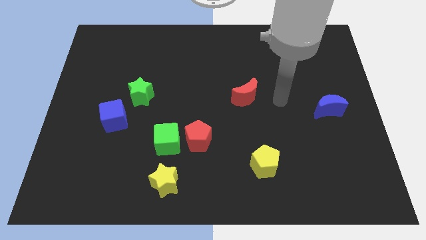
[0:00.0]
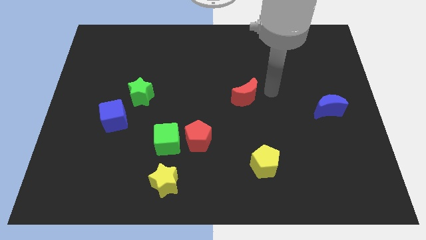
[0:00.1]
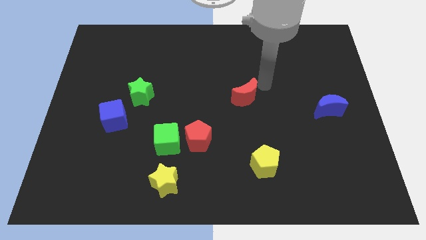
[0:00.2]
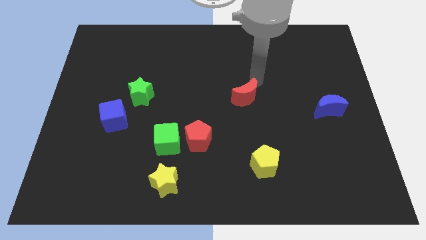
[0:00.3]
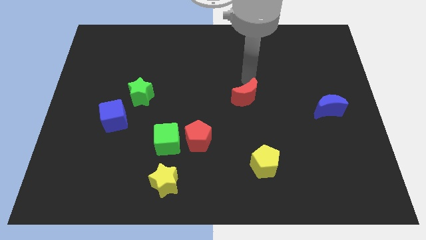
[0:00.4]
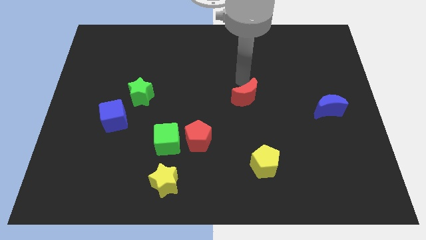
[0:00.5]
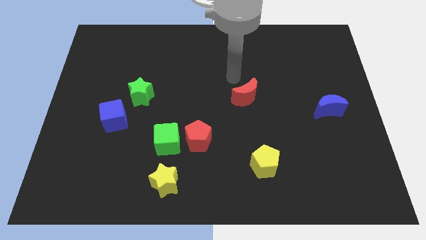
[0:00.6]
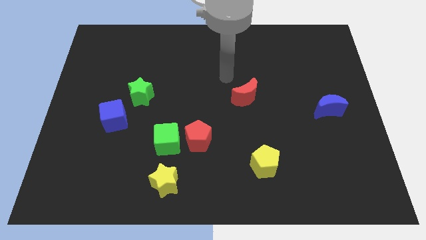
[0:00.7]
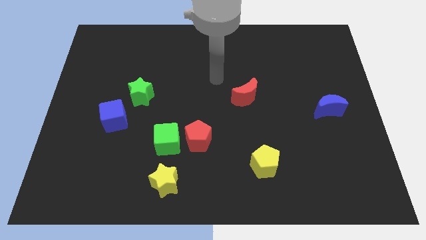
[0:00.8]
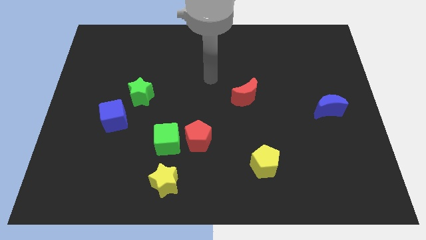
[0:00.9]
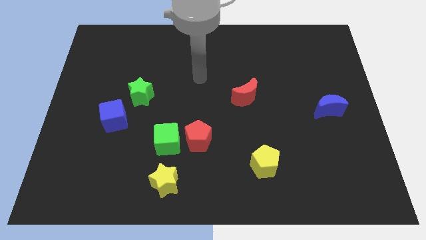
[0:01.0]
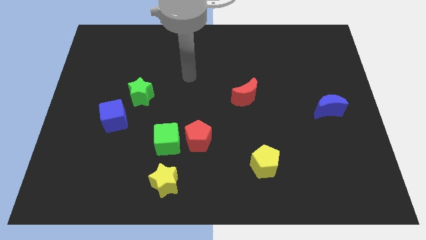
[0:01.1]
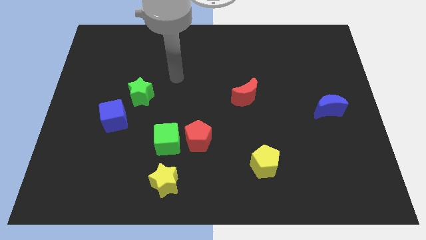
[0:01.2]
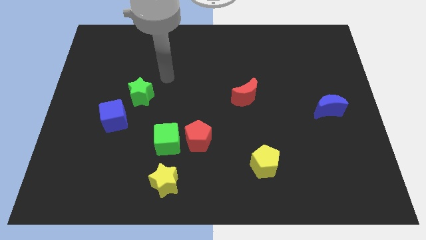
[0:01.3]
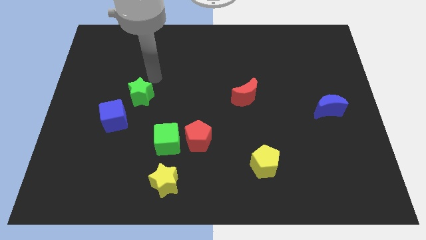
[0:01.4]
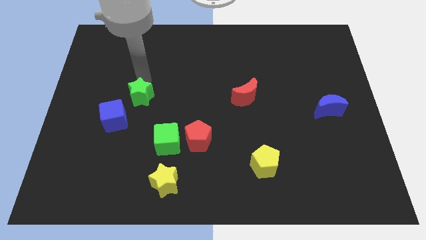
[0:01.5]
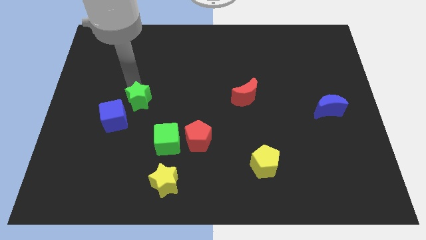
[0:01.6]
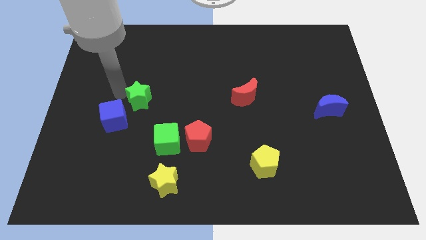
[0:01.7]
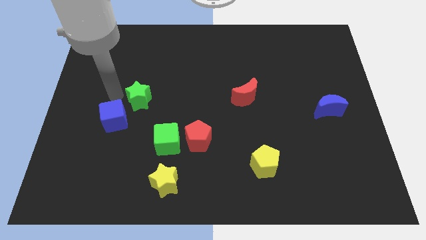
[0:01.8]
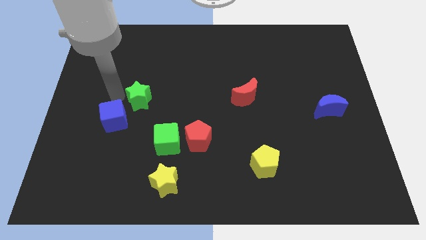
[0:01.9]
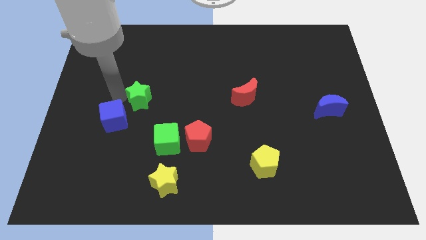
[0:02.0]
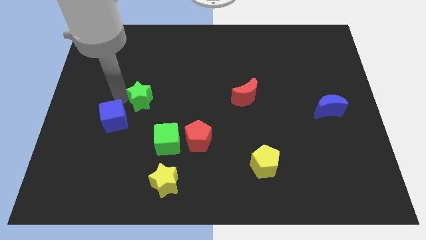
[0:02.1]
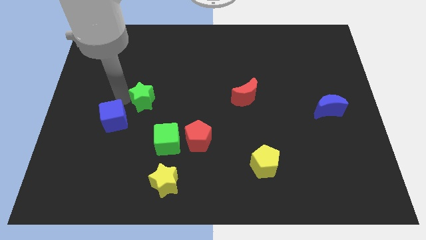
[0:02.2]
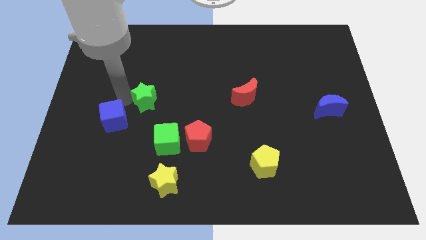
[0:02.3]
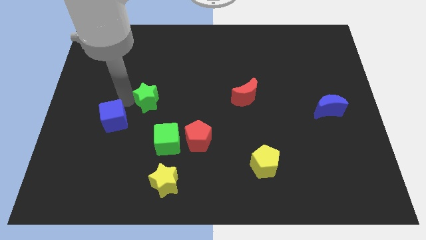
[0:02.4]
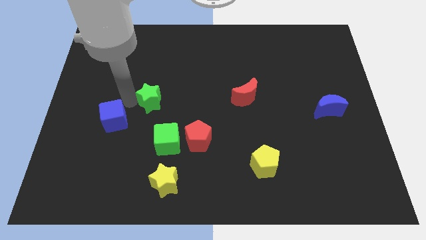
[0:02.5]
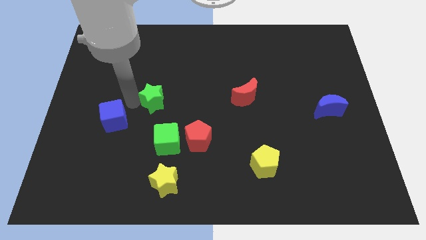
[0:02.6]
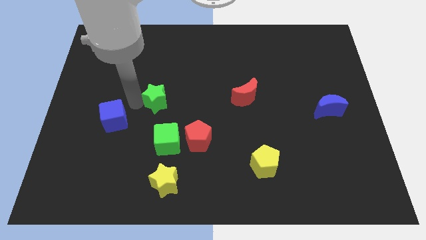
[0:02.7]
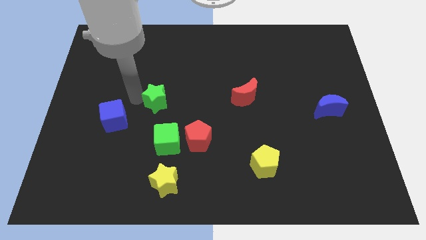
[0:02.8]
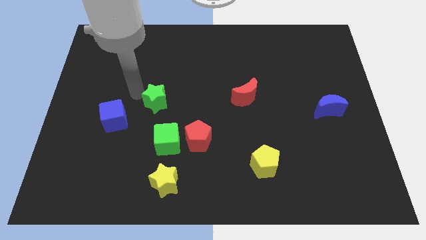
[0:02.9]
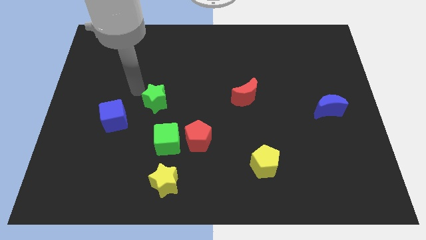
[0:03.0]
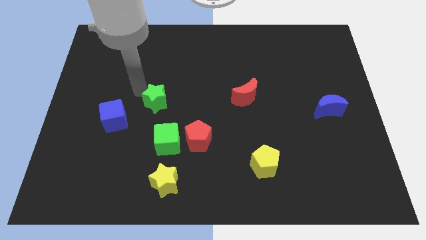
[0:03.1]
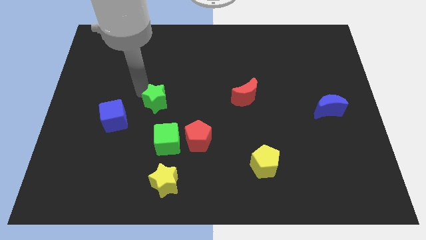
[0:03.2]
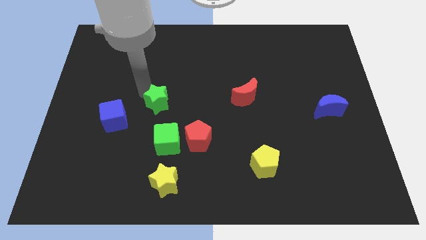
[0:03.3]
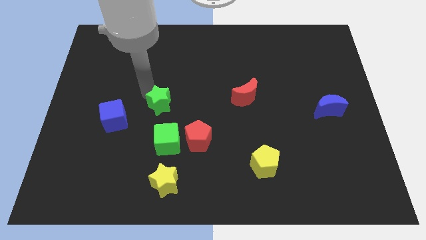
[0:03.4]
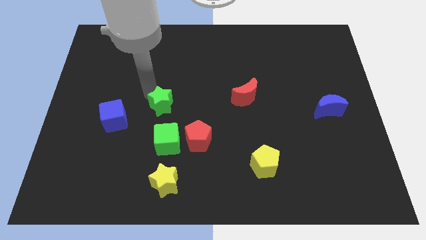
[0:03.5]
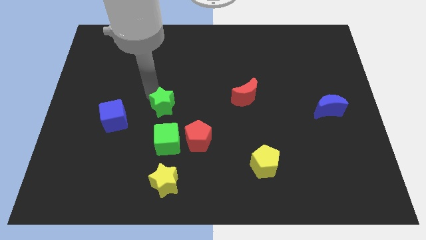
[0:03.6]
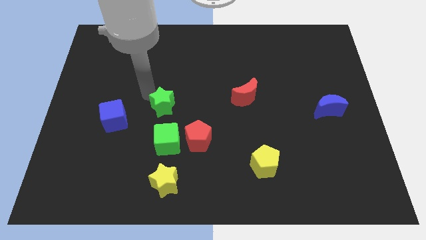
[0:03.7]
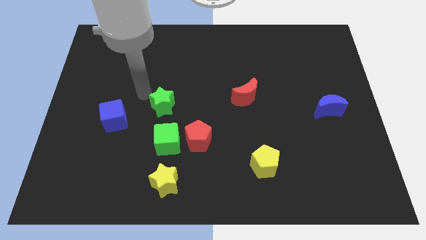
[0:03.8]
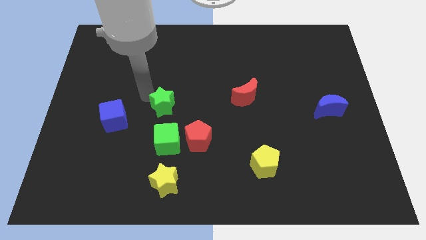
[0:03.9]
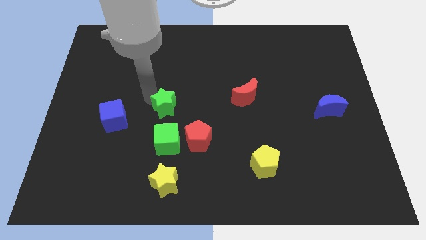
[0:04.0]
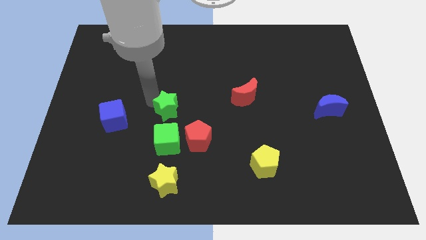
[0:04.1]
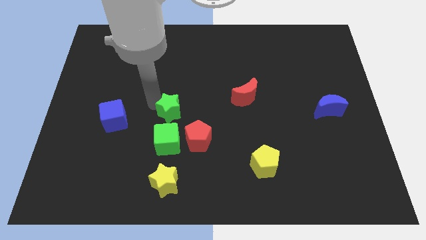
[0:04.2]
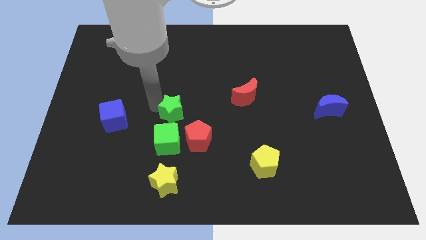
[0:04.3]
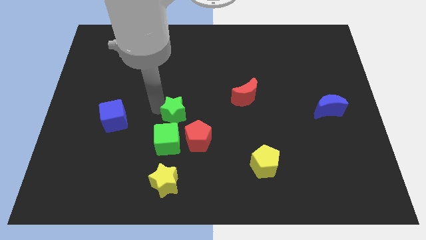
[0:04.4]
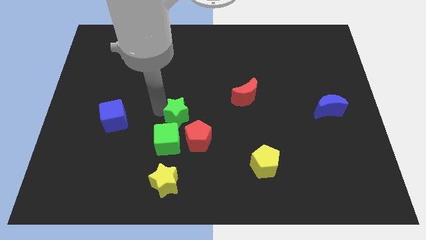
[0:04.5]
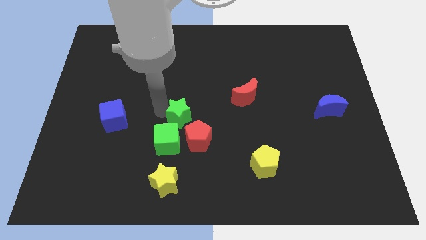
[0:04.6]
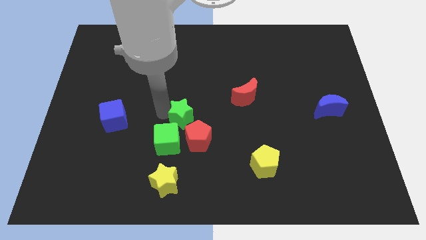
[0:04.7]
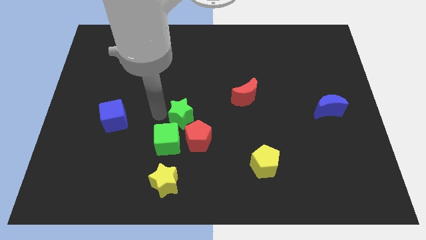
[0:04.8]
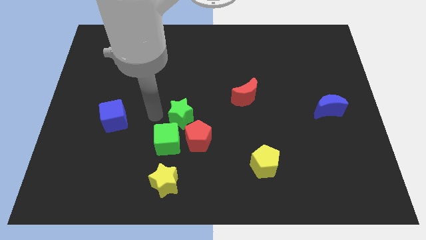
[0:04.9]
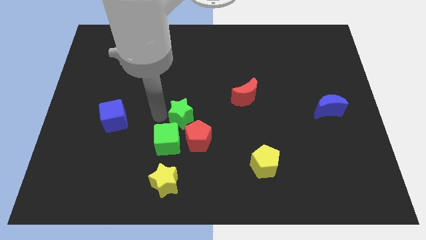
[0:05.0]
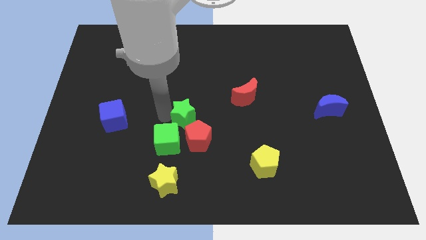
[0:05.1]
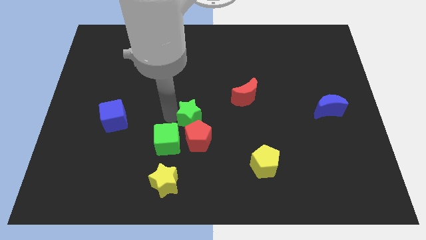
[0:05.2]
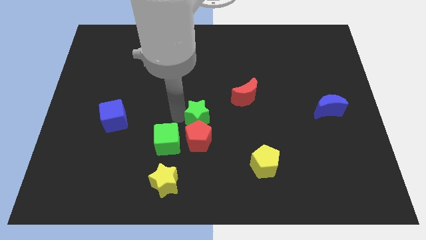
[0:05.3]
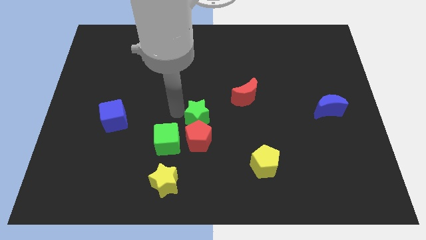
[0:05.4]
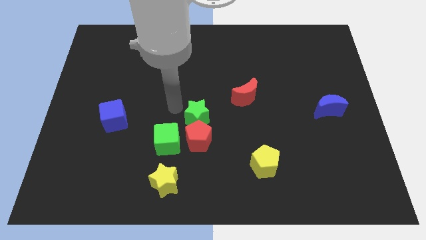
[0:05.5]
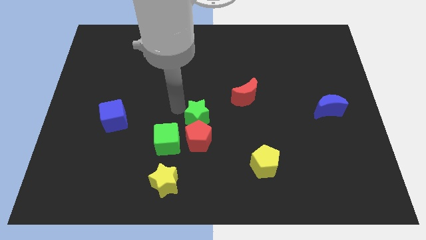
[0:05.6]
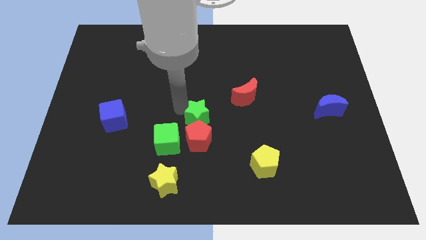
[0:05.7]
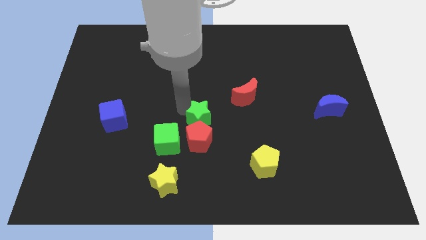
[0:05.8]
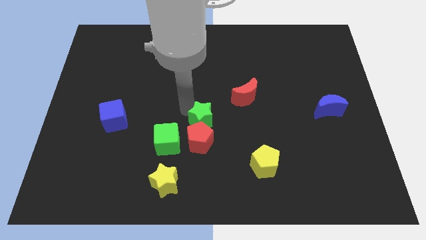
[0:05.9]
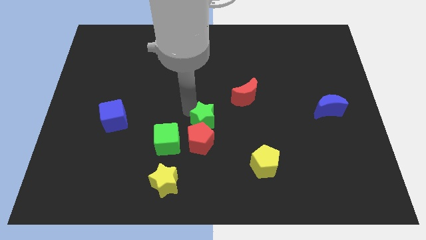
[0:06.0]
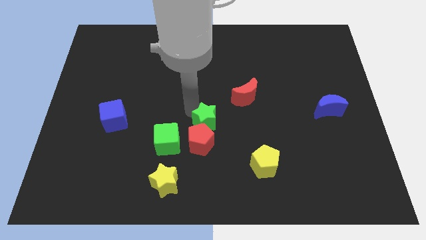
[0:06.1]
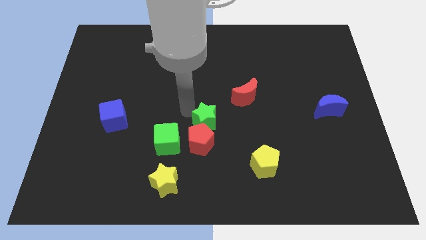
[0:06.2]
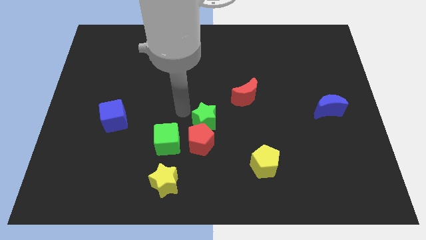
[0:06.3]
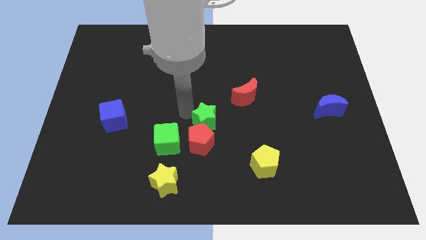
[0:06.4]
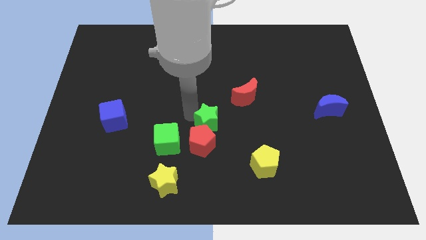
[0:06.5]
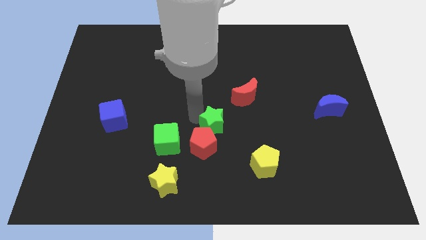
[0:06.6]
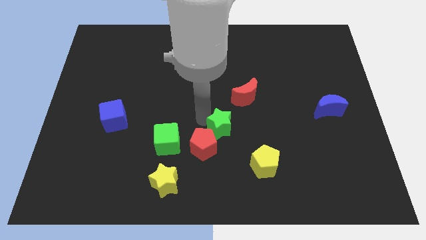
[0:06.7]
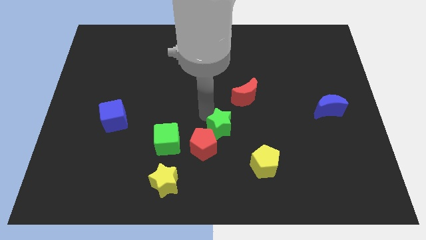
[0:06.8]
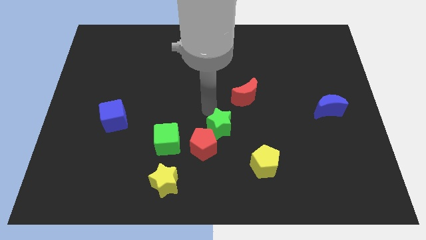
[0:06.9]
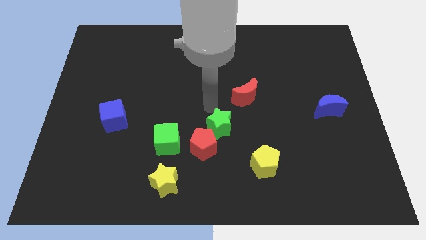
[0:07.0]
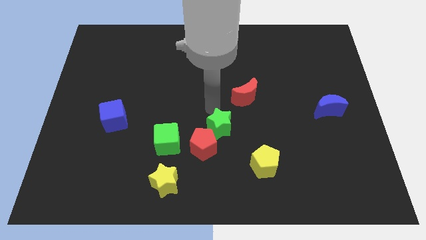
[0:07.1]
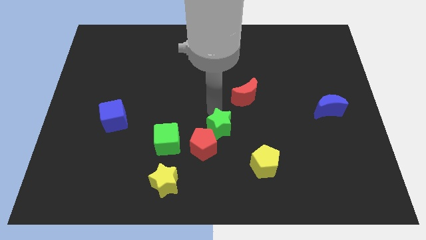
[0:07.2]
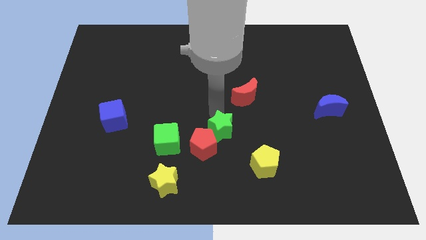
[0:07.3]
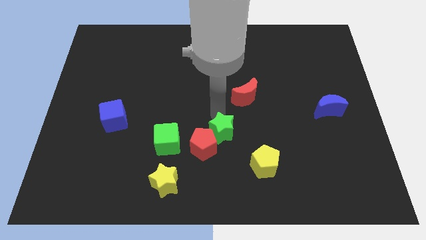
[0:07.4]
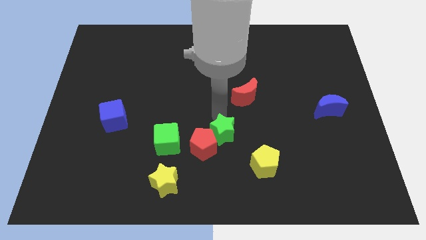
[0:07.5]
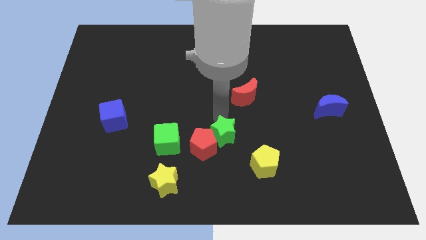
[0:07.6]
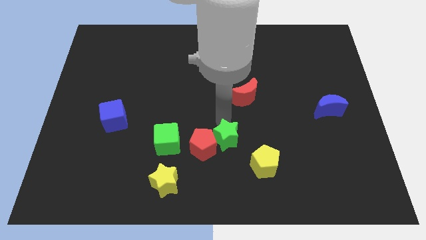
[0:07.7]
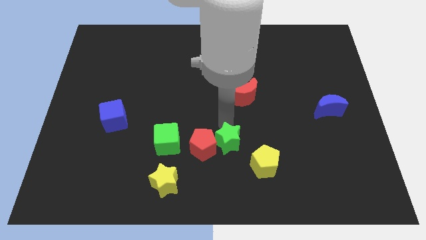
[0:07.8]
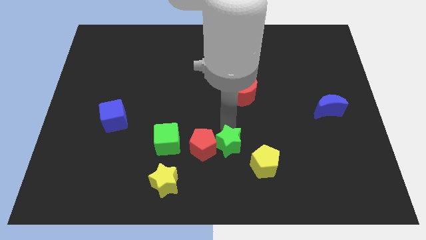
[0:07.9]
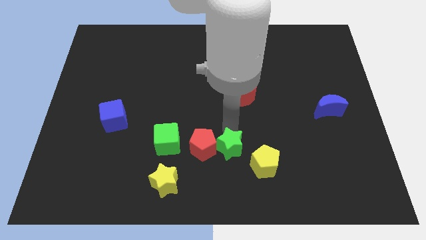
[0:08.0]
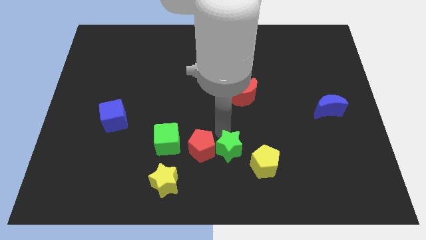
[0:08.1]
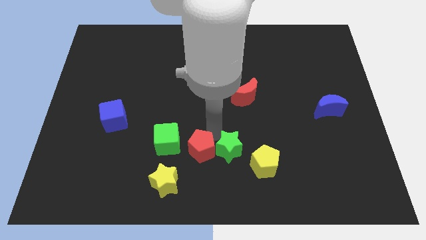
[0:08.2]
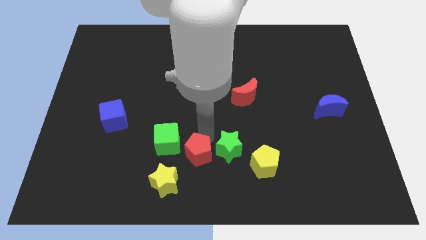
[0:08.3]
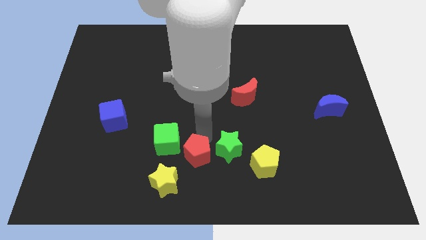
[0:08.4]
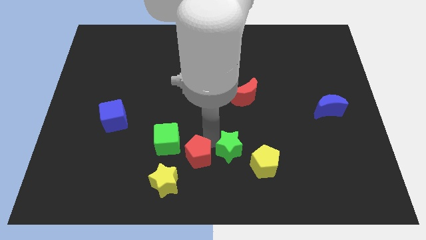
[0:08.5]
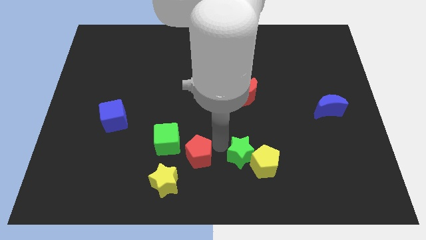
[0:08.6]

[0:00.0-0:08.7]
move the green star towards the yellow pentagon
